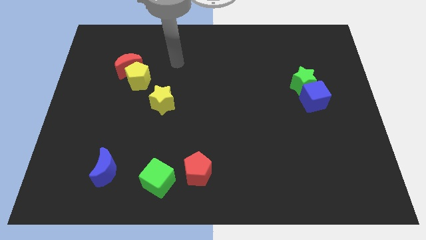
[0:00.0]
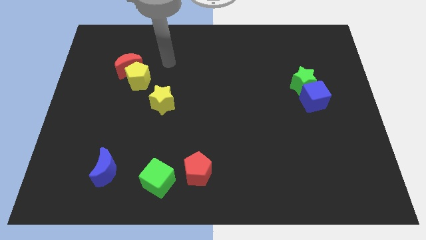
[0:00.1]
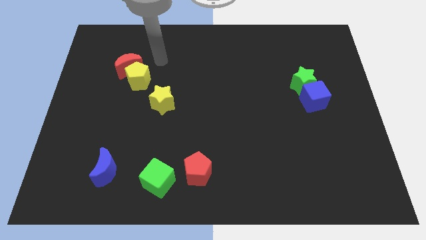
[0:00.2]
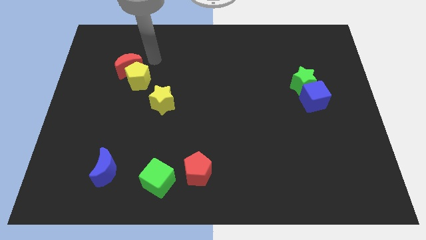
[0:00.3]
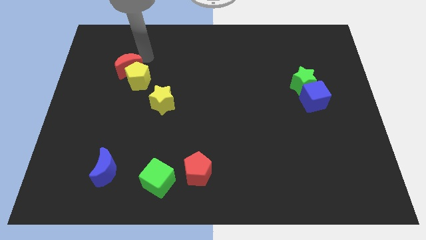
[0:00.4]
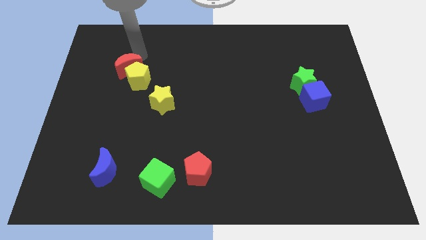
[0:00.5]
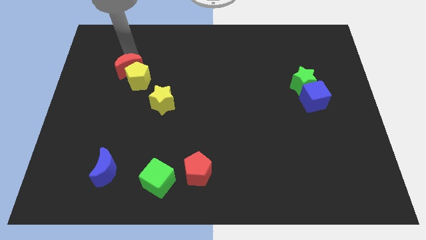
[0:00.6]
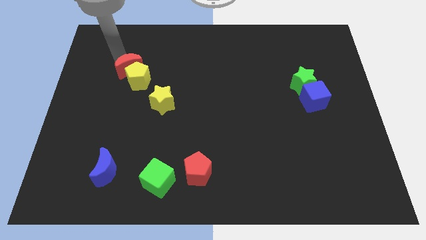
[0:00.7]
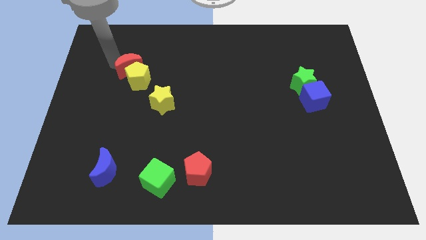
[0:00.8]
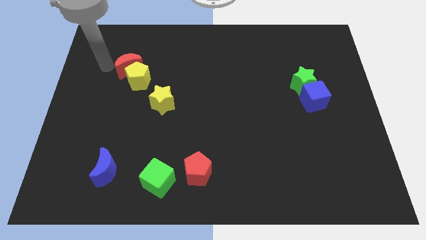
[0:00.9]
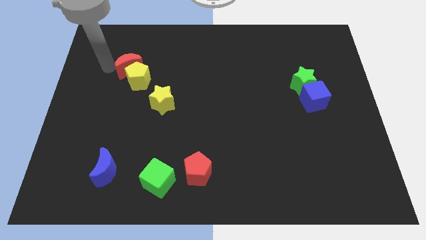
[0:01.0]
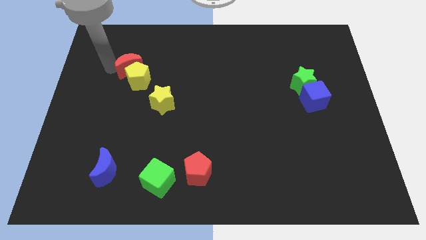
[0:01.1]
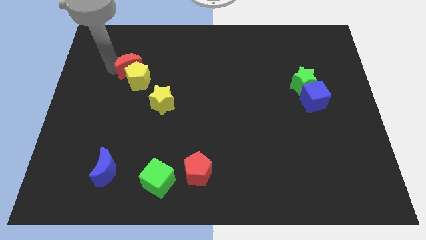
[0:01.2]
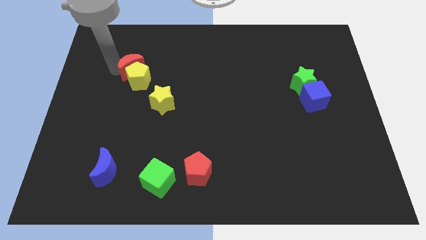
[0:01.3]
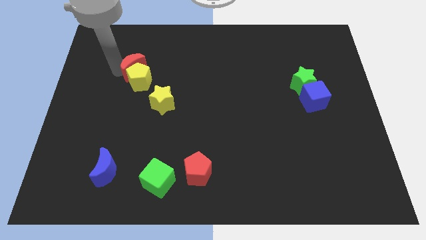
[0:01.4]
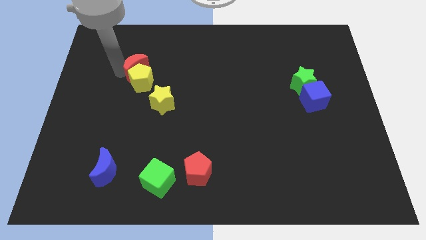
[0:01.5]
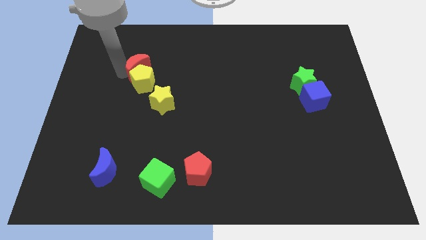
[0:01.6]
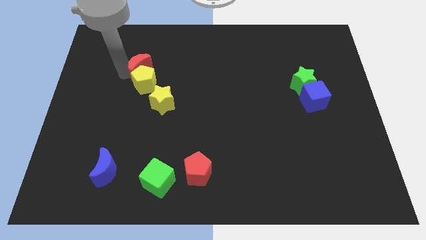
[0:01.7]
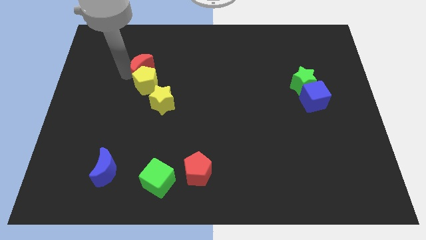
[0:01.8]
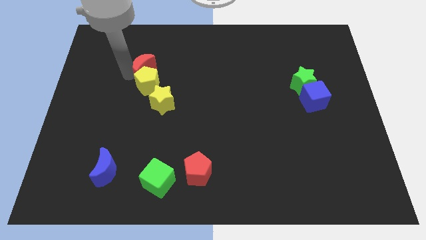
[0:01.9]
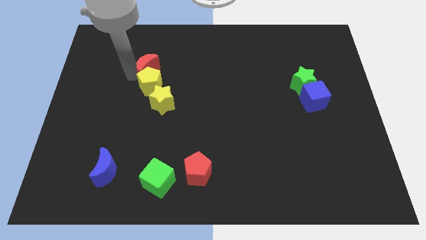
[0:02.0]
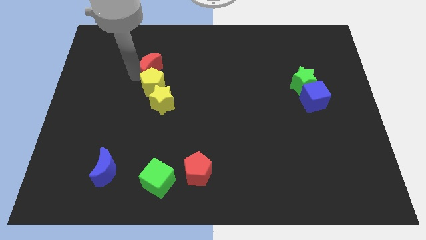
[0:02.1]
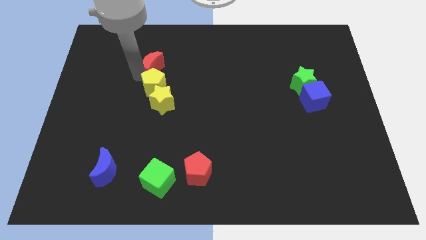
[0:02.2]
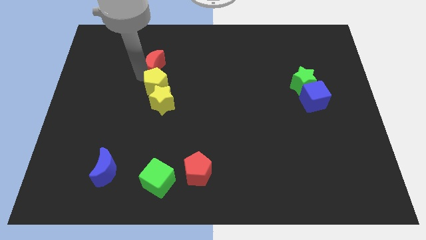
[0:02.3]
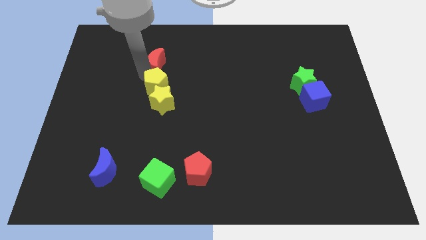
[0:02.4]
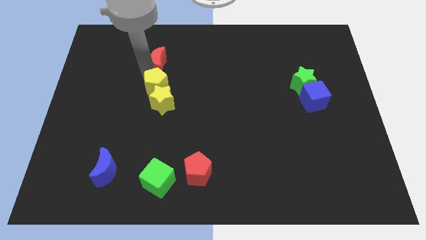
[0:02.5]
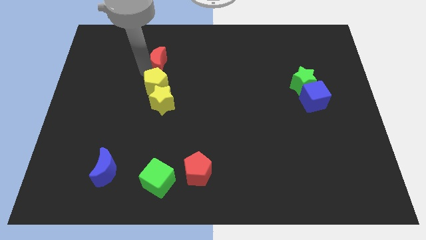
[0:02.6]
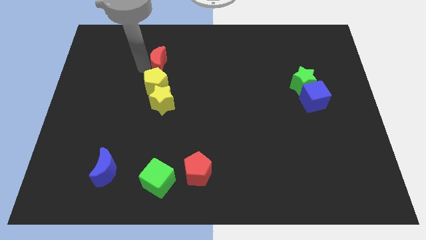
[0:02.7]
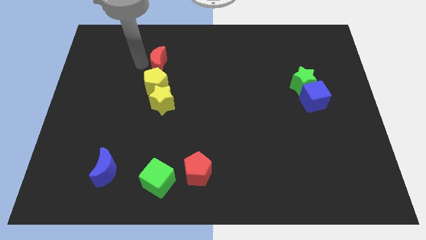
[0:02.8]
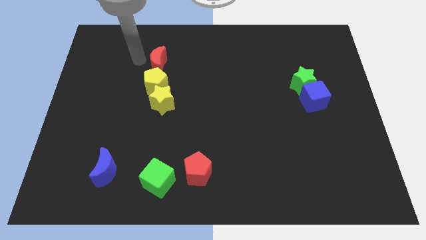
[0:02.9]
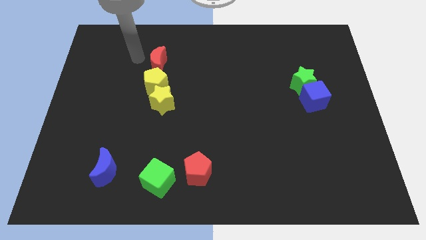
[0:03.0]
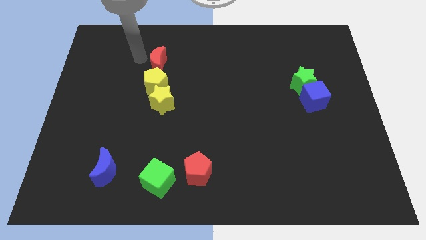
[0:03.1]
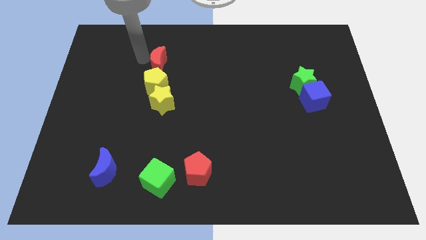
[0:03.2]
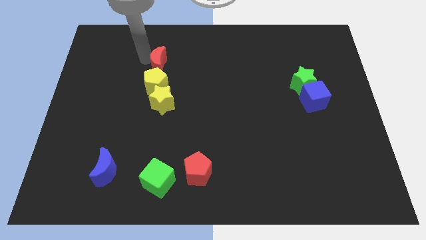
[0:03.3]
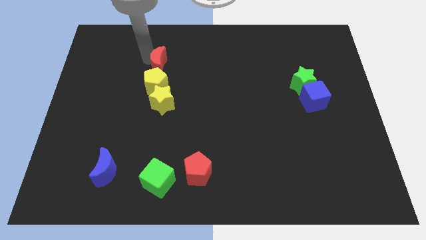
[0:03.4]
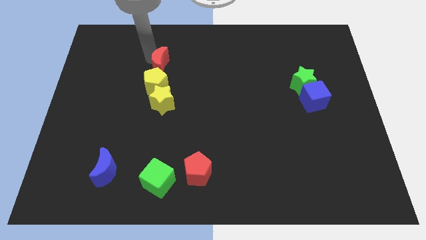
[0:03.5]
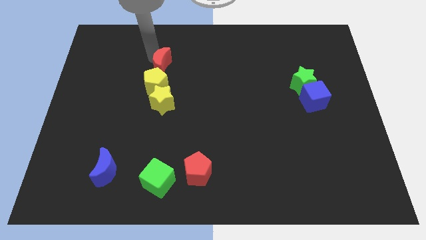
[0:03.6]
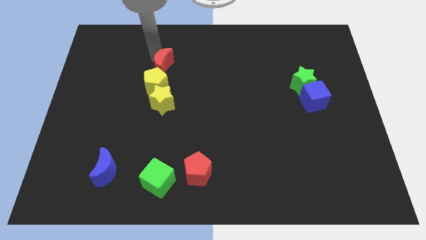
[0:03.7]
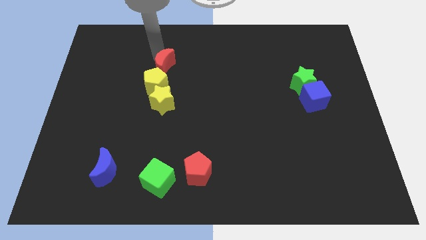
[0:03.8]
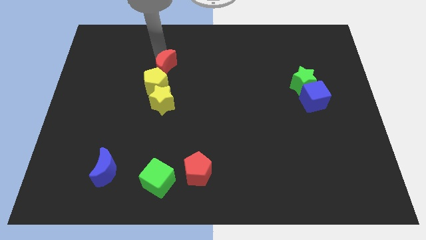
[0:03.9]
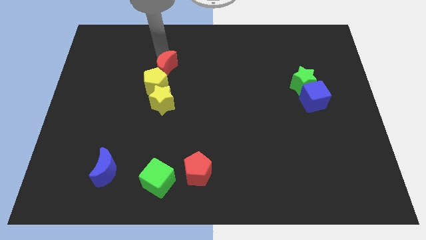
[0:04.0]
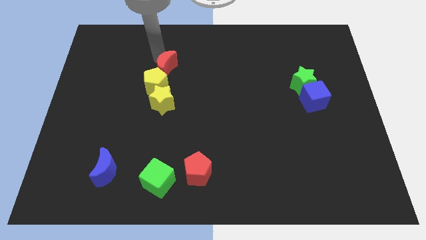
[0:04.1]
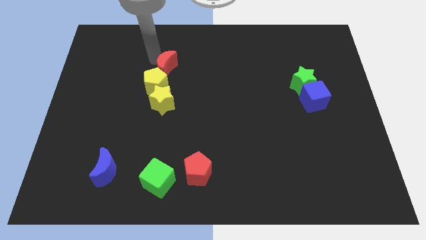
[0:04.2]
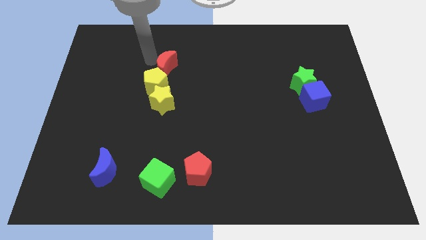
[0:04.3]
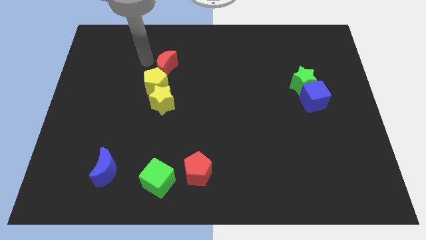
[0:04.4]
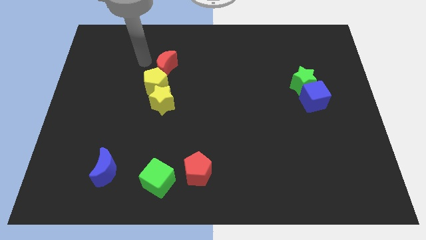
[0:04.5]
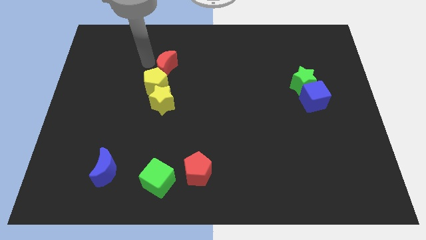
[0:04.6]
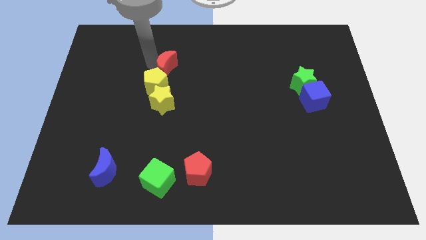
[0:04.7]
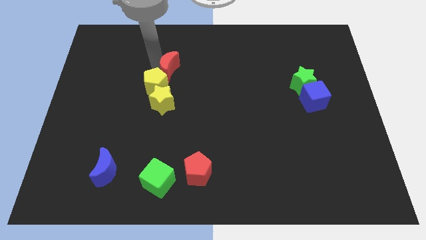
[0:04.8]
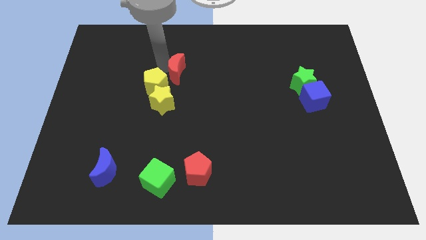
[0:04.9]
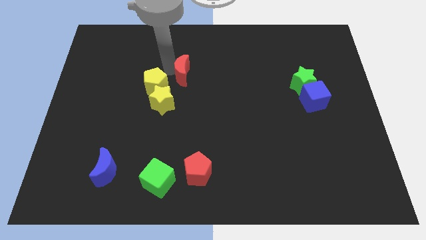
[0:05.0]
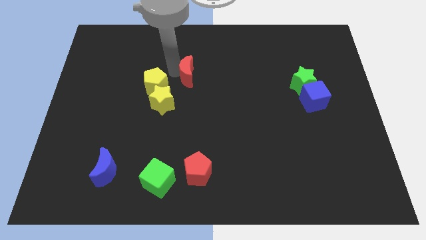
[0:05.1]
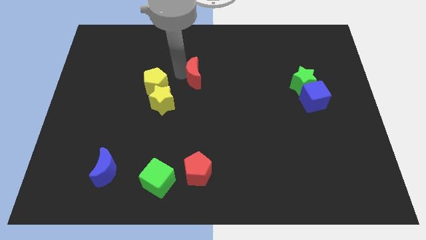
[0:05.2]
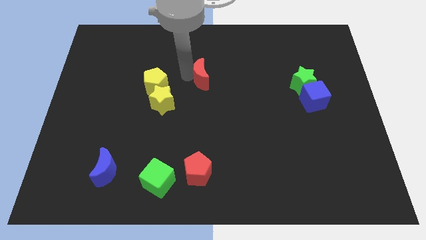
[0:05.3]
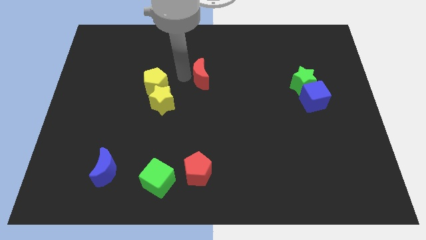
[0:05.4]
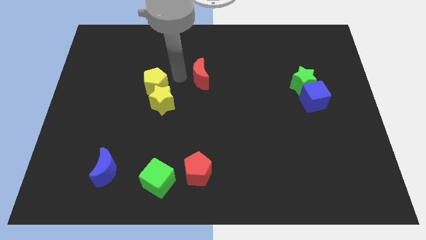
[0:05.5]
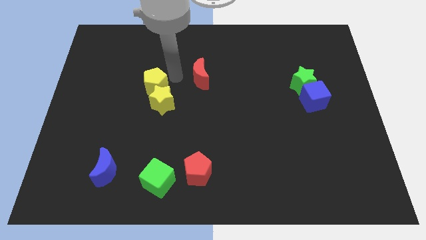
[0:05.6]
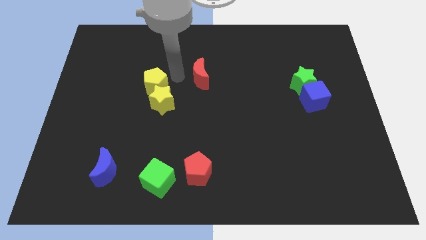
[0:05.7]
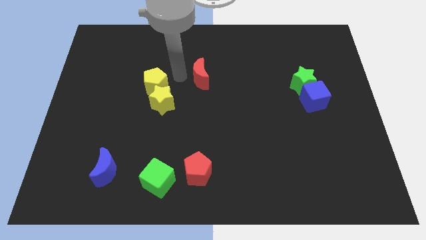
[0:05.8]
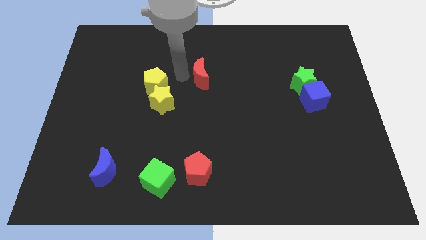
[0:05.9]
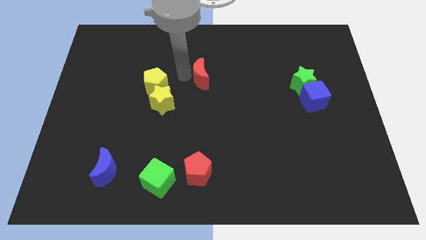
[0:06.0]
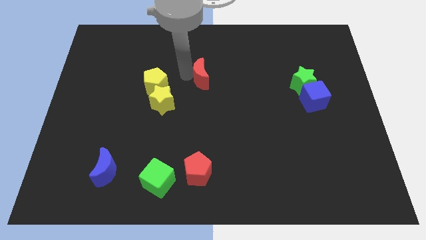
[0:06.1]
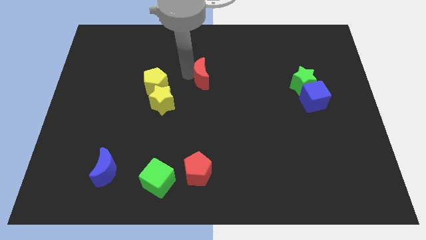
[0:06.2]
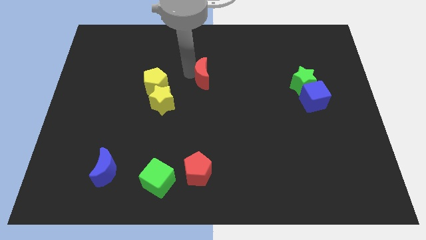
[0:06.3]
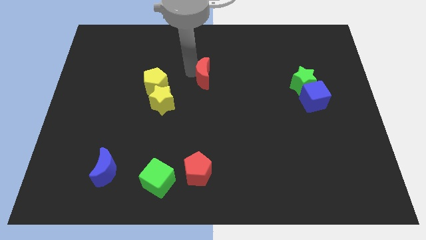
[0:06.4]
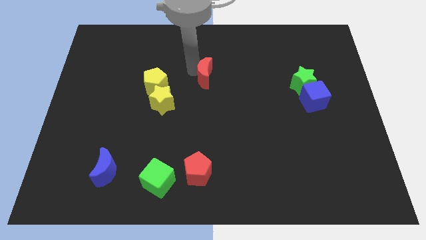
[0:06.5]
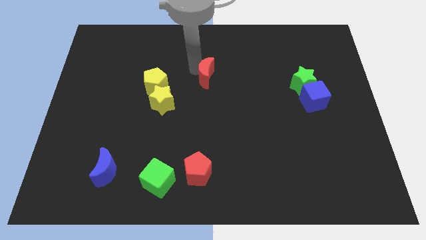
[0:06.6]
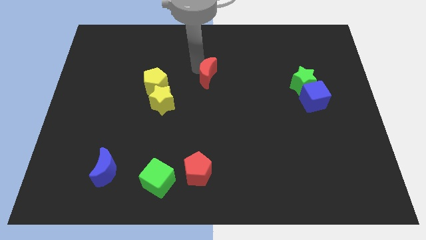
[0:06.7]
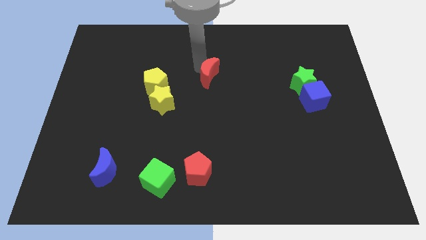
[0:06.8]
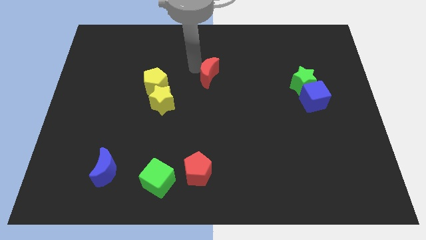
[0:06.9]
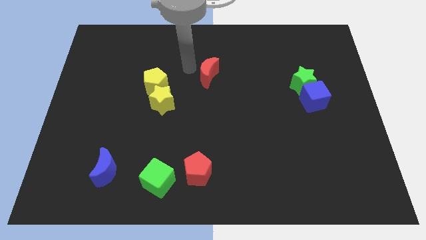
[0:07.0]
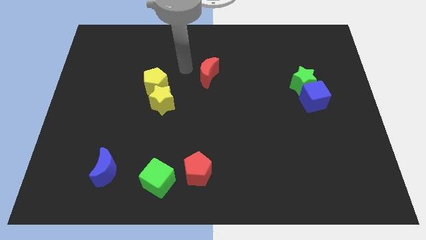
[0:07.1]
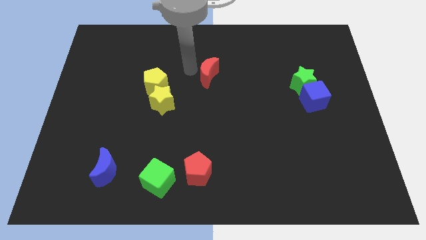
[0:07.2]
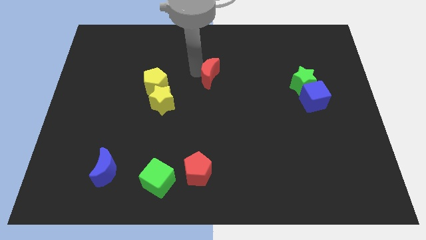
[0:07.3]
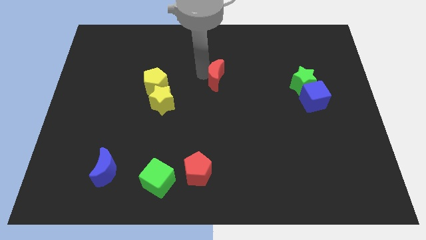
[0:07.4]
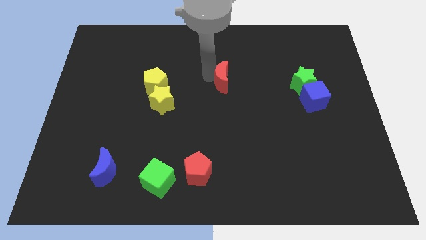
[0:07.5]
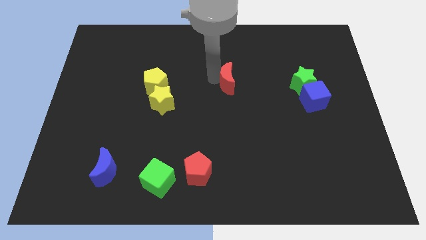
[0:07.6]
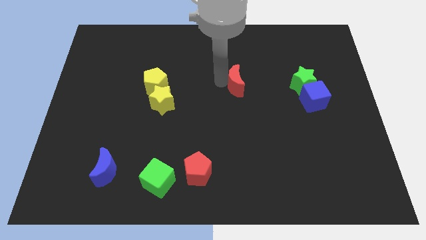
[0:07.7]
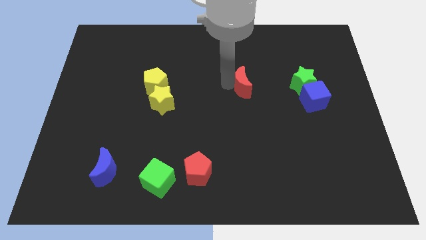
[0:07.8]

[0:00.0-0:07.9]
put the red moon left of the green star
